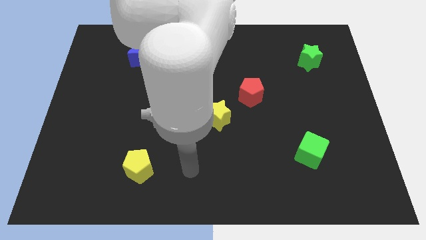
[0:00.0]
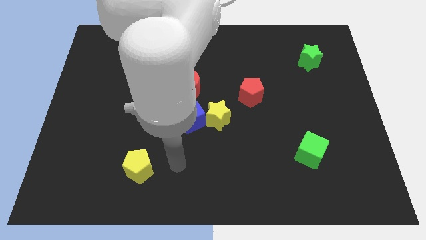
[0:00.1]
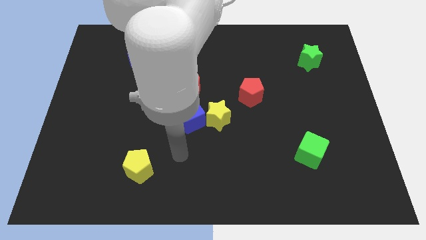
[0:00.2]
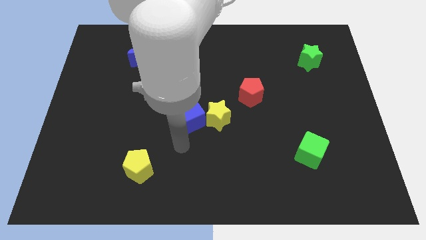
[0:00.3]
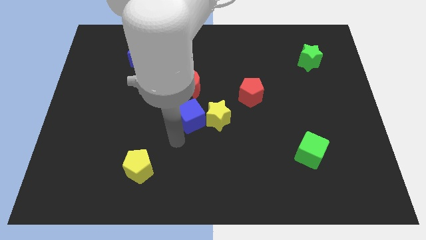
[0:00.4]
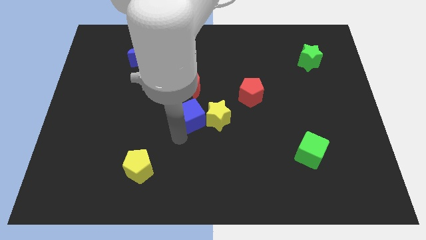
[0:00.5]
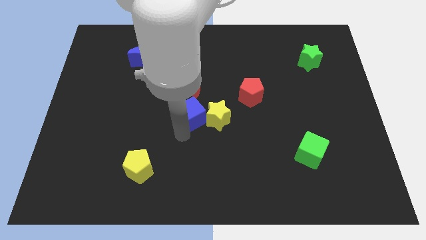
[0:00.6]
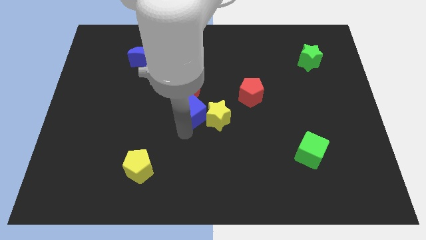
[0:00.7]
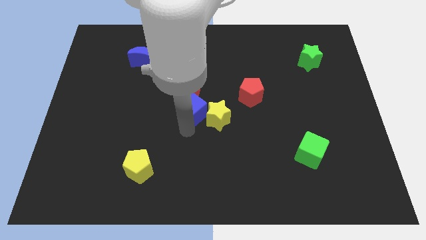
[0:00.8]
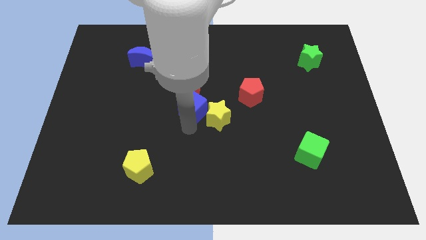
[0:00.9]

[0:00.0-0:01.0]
slide the blue cube left of the red pentagon

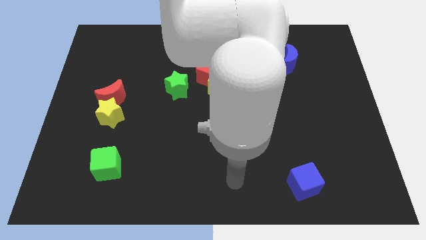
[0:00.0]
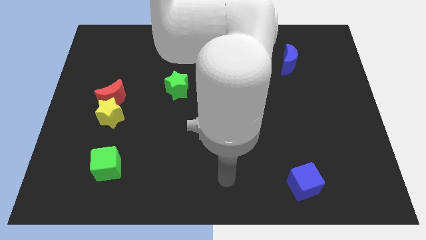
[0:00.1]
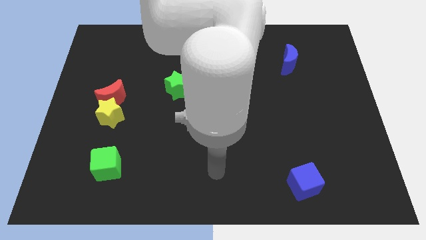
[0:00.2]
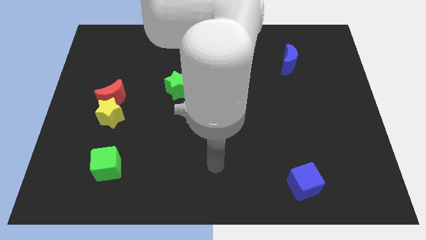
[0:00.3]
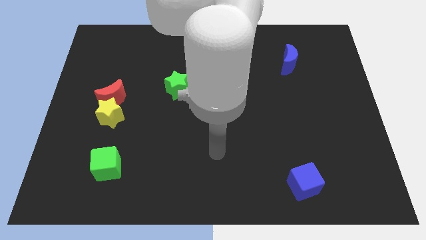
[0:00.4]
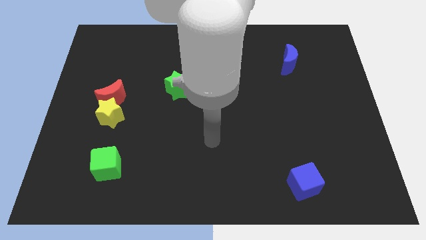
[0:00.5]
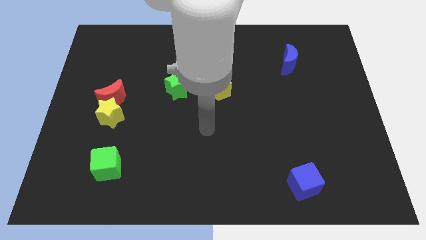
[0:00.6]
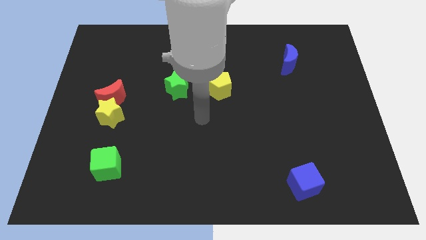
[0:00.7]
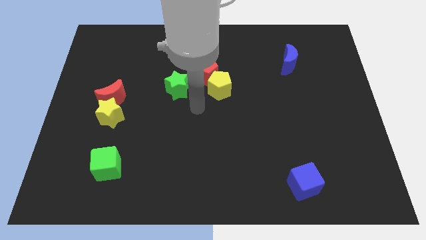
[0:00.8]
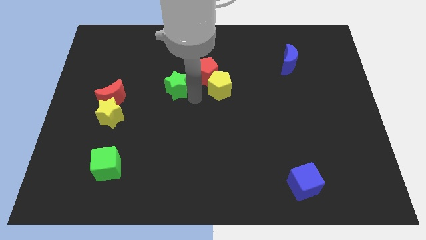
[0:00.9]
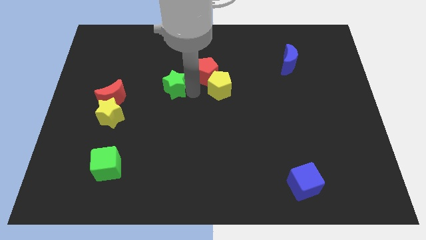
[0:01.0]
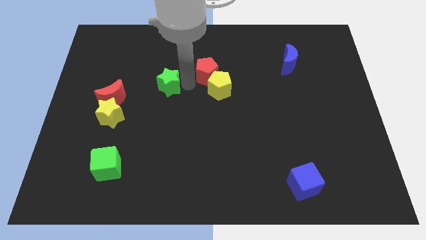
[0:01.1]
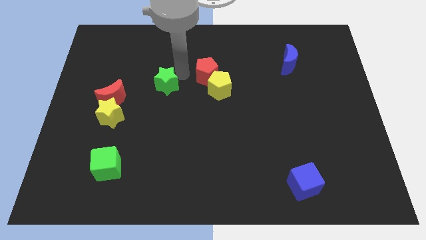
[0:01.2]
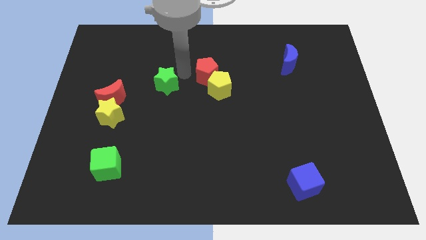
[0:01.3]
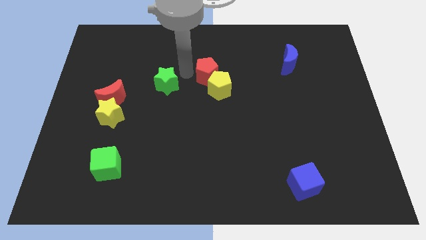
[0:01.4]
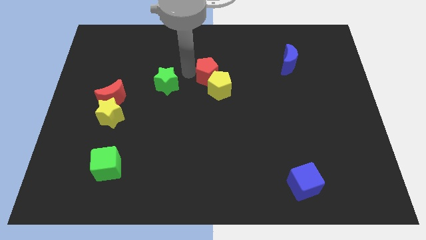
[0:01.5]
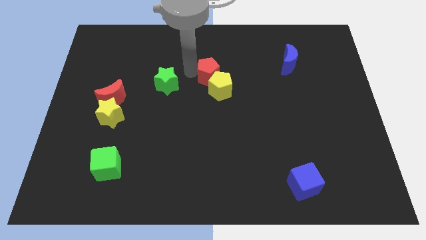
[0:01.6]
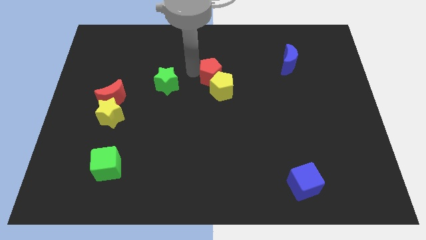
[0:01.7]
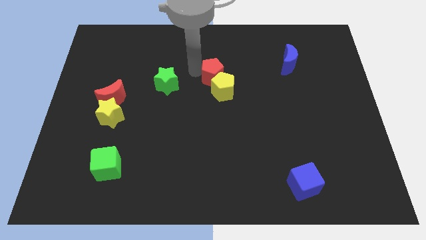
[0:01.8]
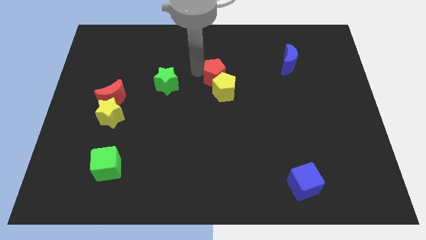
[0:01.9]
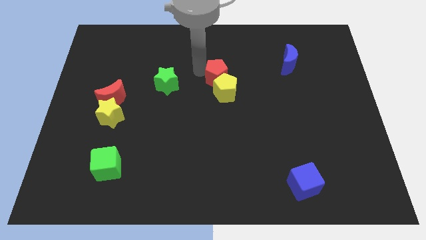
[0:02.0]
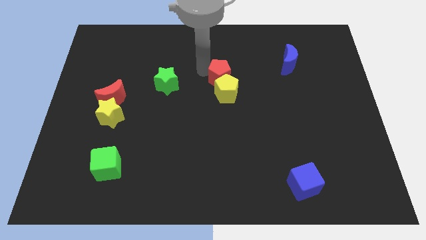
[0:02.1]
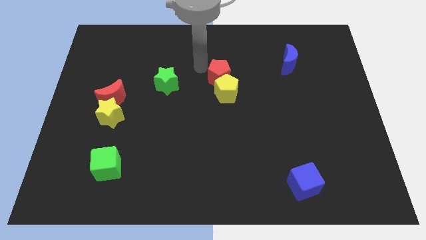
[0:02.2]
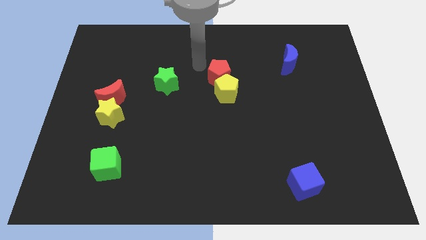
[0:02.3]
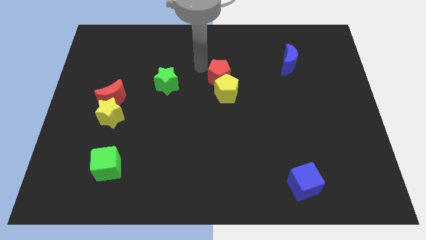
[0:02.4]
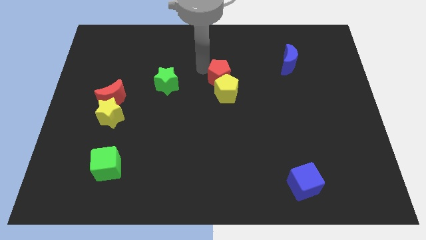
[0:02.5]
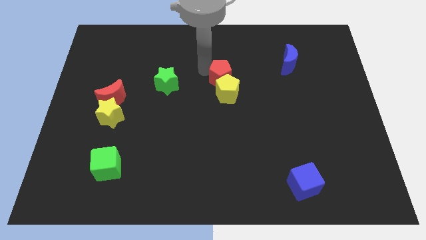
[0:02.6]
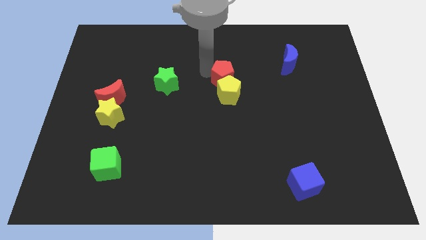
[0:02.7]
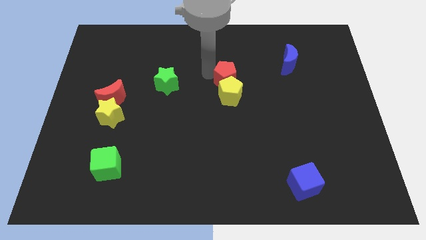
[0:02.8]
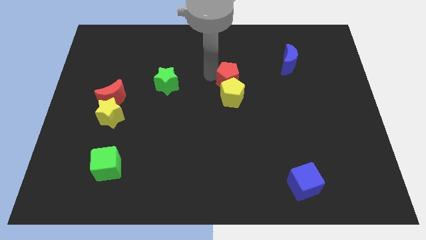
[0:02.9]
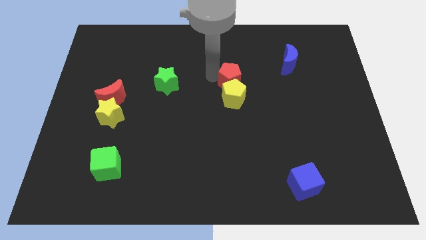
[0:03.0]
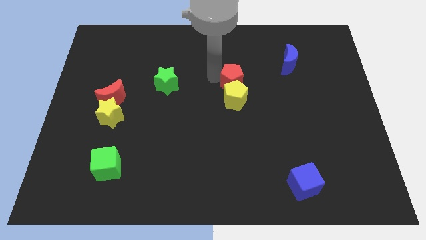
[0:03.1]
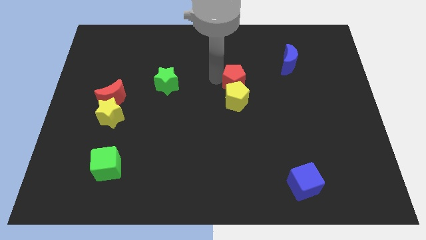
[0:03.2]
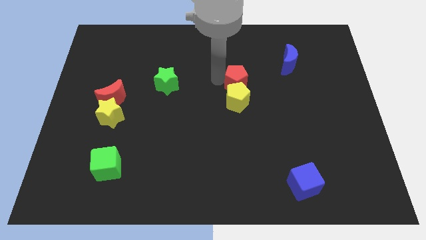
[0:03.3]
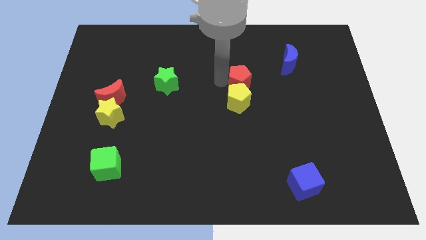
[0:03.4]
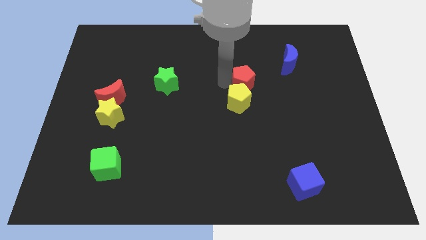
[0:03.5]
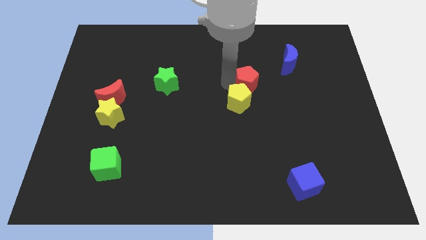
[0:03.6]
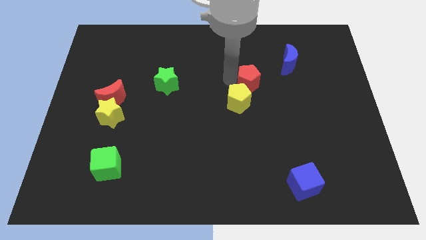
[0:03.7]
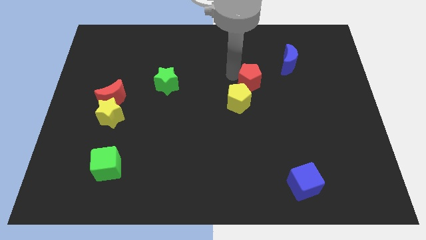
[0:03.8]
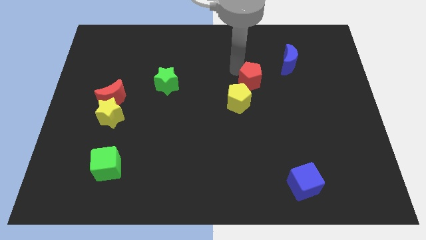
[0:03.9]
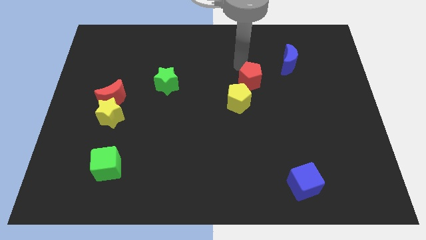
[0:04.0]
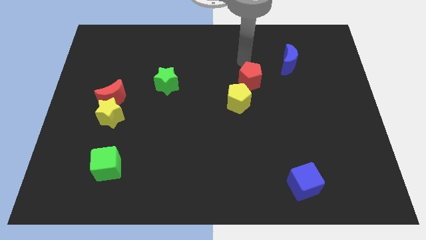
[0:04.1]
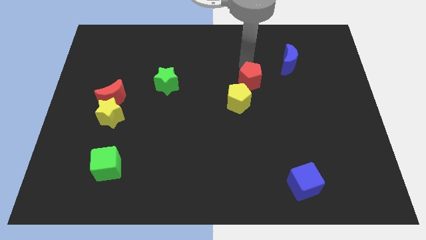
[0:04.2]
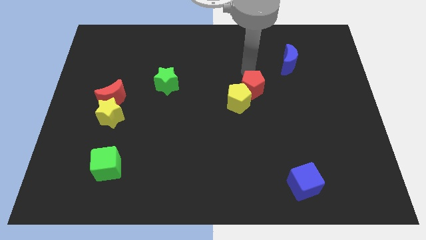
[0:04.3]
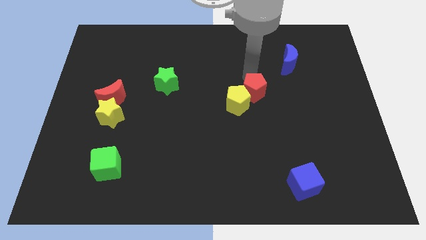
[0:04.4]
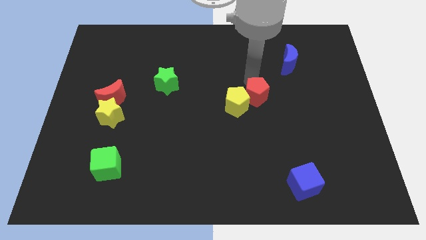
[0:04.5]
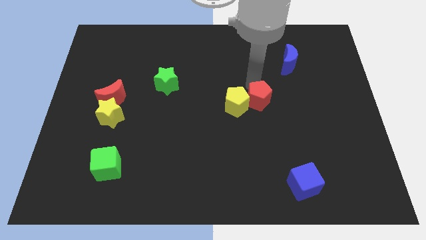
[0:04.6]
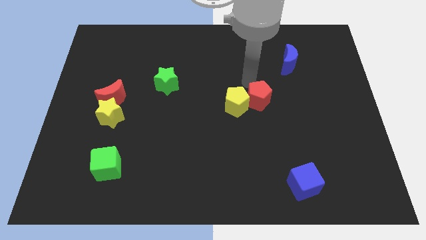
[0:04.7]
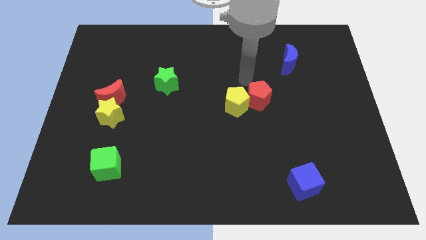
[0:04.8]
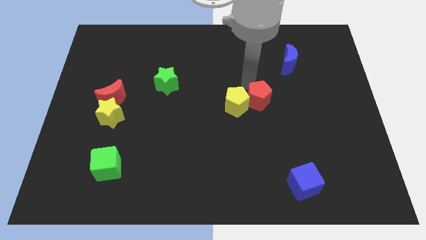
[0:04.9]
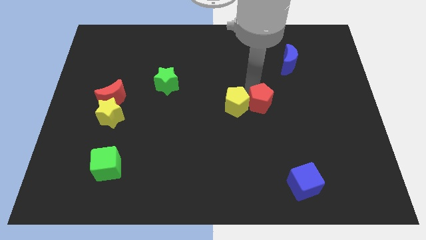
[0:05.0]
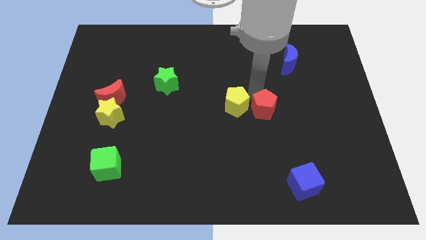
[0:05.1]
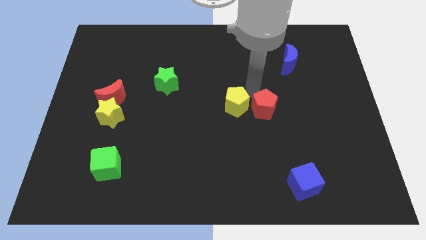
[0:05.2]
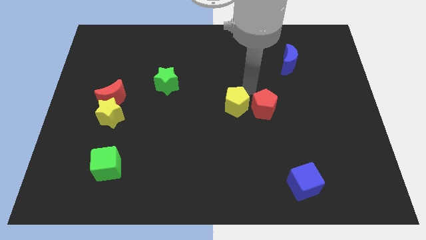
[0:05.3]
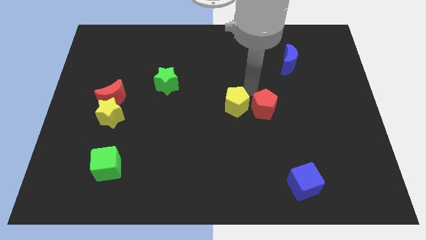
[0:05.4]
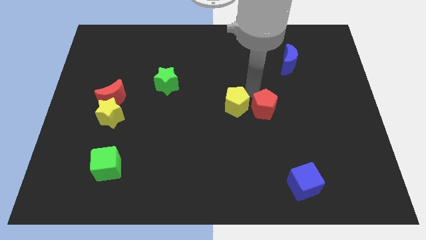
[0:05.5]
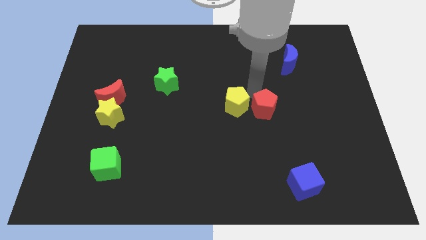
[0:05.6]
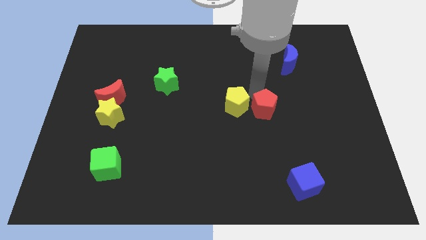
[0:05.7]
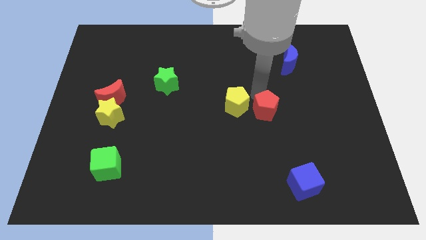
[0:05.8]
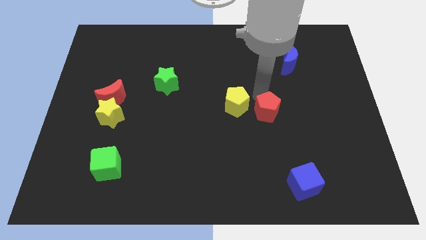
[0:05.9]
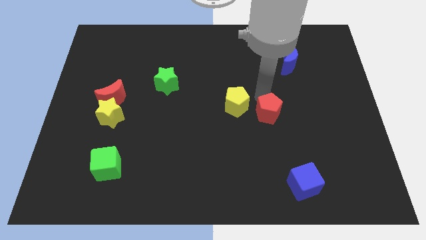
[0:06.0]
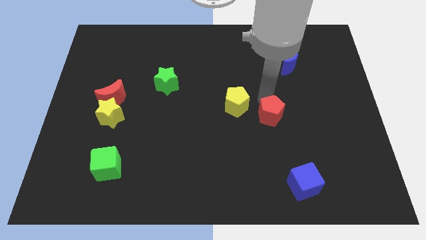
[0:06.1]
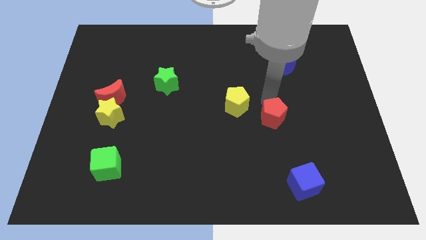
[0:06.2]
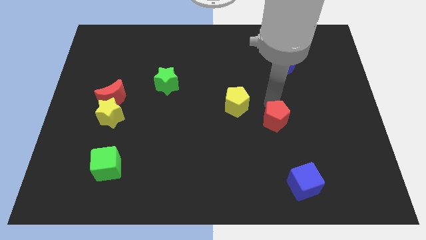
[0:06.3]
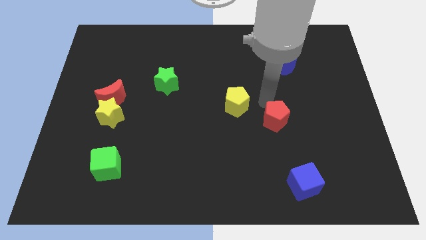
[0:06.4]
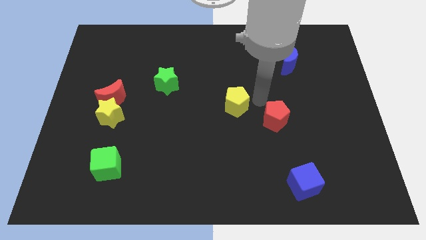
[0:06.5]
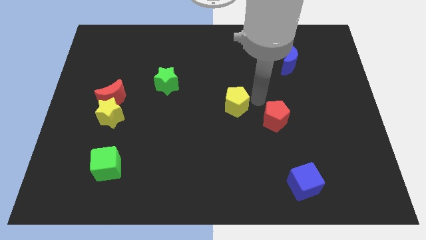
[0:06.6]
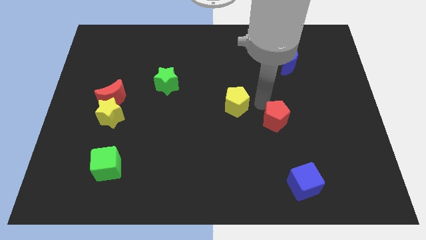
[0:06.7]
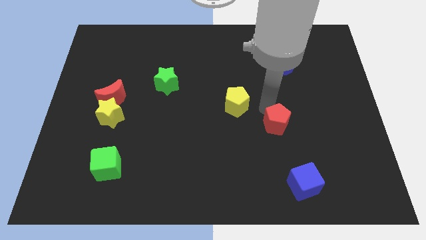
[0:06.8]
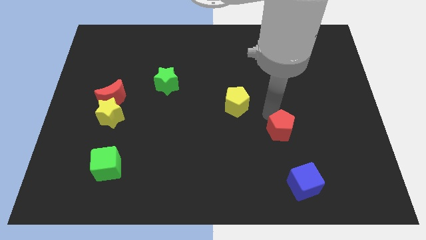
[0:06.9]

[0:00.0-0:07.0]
move the red pentagon to the top side of the blue cube

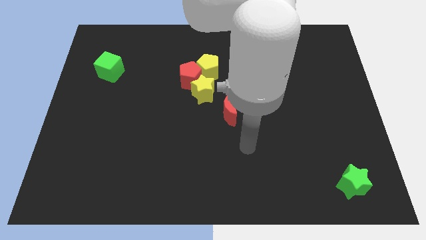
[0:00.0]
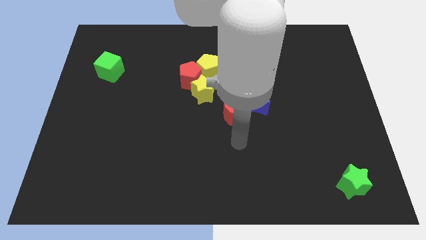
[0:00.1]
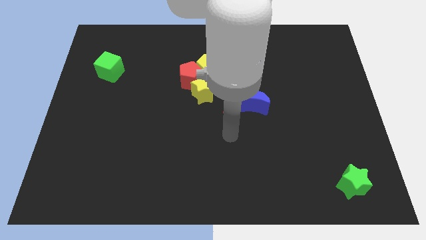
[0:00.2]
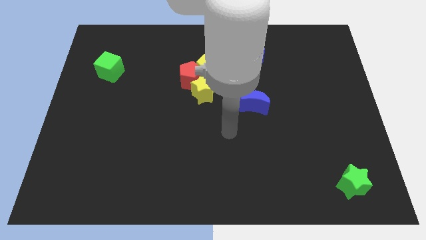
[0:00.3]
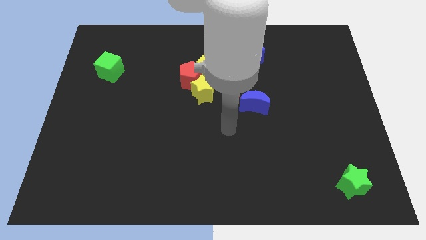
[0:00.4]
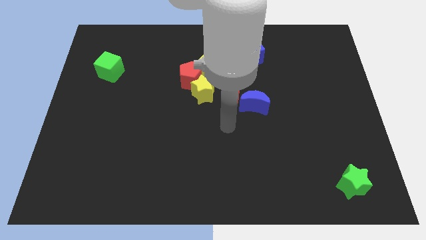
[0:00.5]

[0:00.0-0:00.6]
put the red moon to the top left side of the blue moon
